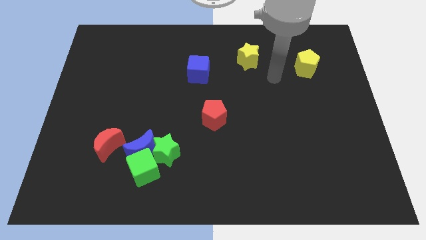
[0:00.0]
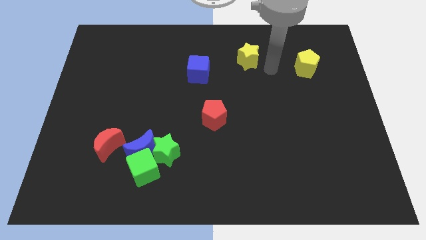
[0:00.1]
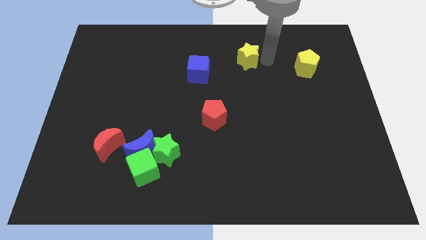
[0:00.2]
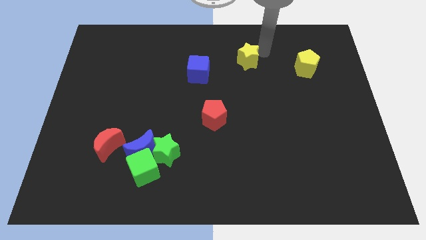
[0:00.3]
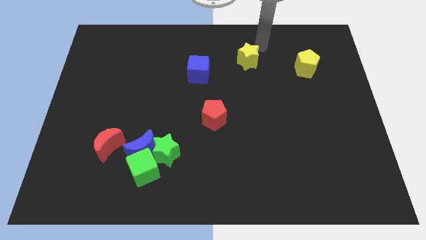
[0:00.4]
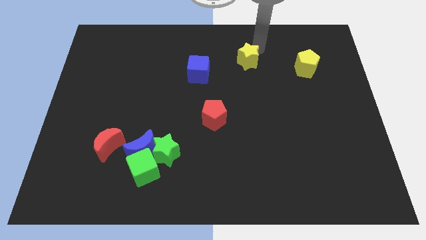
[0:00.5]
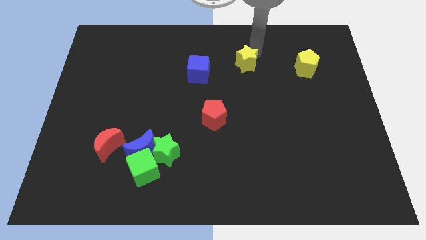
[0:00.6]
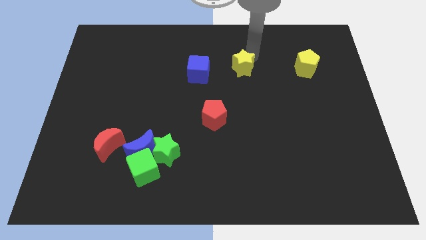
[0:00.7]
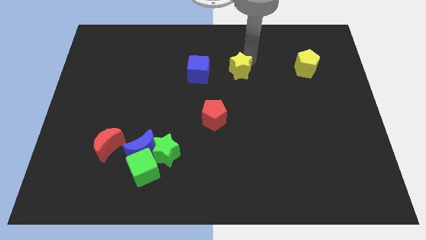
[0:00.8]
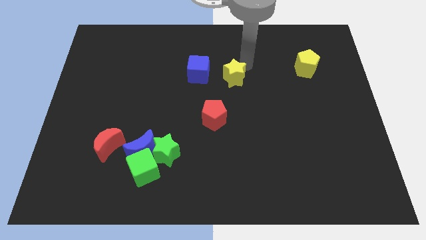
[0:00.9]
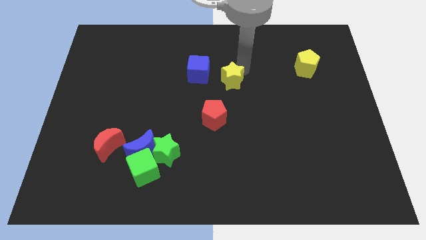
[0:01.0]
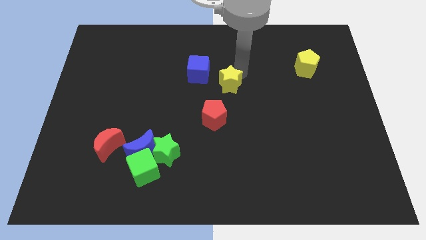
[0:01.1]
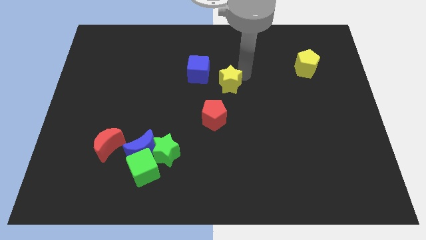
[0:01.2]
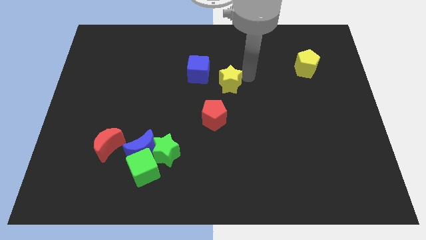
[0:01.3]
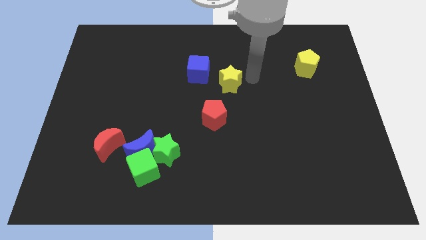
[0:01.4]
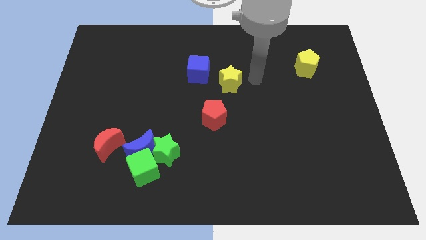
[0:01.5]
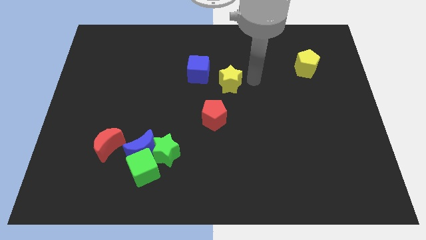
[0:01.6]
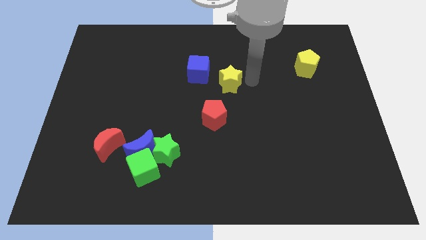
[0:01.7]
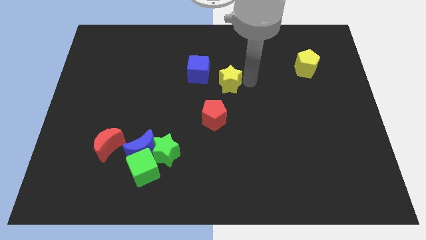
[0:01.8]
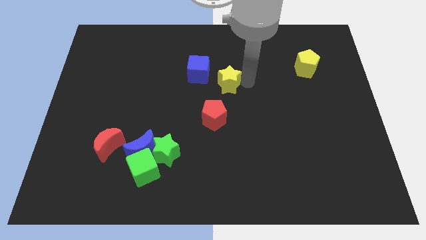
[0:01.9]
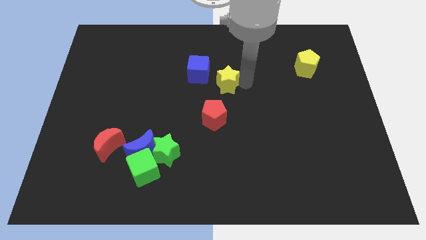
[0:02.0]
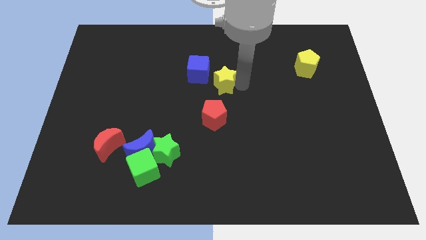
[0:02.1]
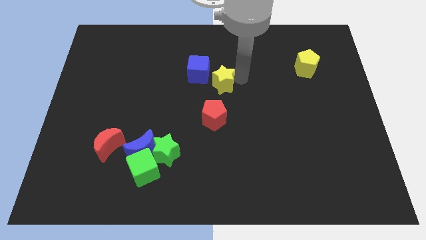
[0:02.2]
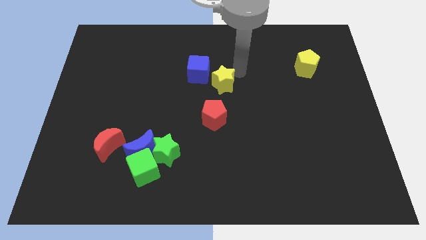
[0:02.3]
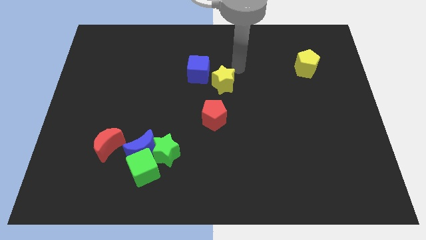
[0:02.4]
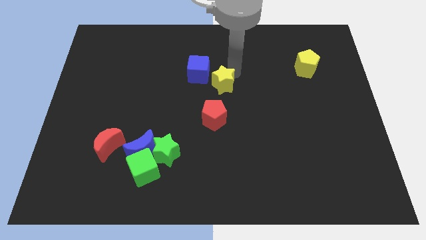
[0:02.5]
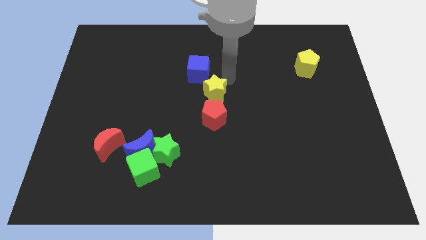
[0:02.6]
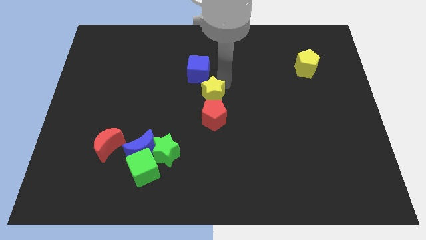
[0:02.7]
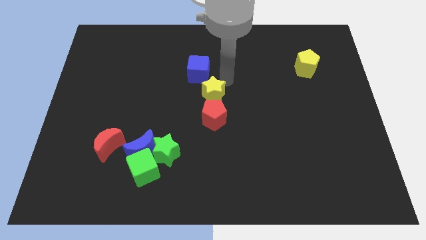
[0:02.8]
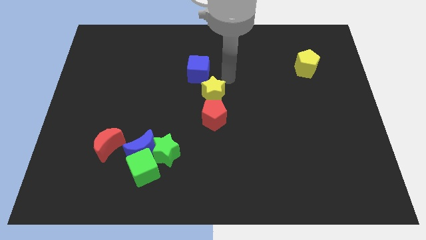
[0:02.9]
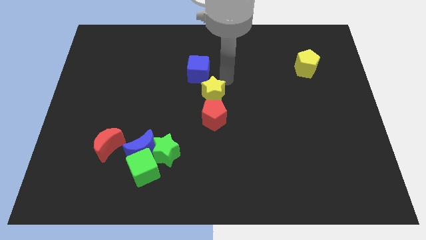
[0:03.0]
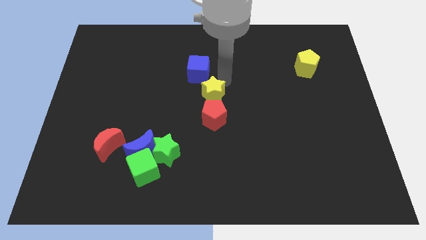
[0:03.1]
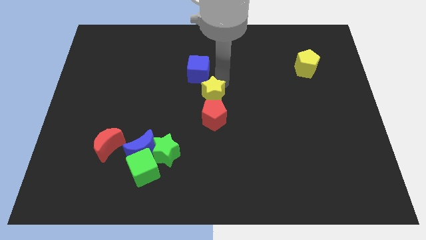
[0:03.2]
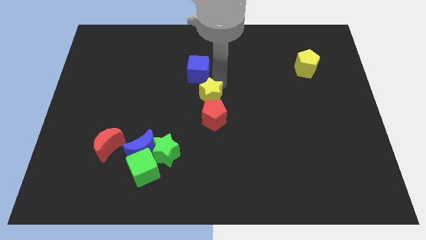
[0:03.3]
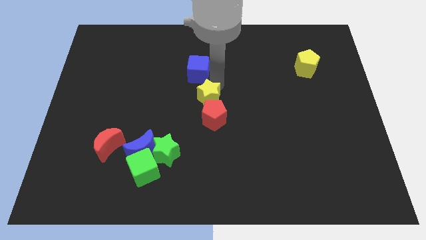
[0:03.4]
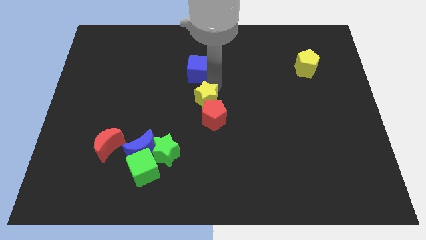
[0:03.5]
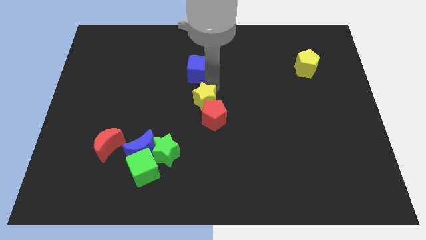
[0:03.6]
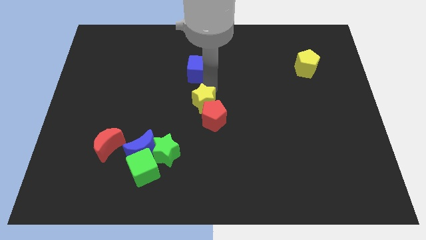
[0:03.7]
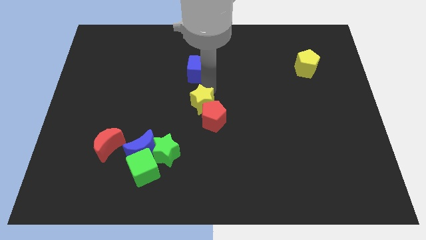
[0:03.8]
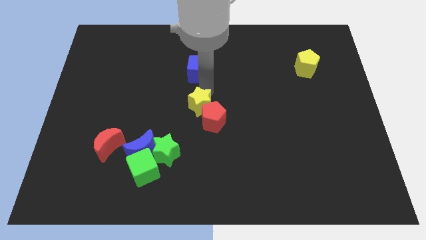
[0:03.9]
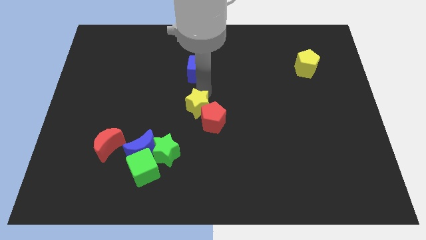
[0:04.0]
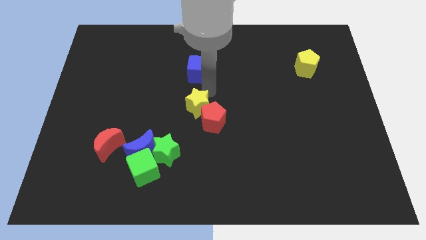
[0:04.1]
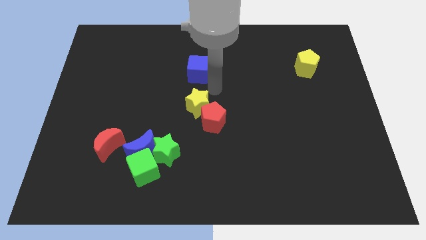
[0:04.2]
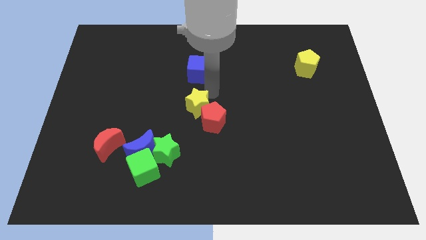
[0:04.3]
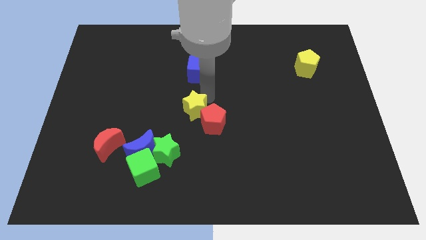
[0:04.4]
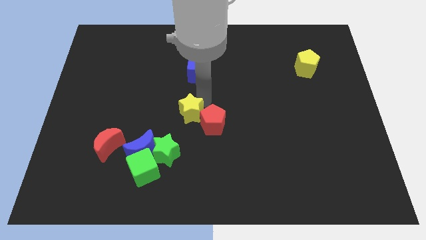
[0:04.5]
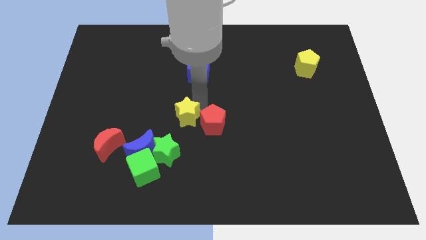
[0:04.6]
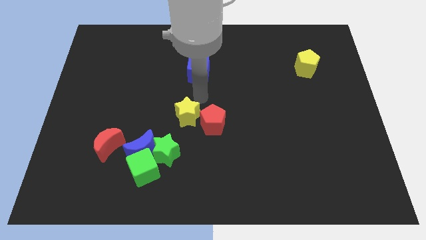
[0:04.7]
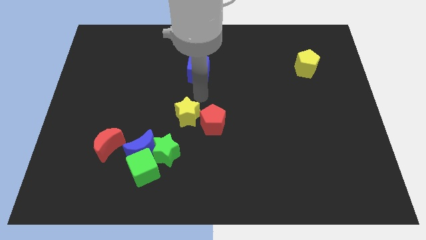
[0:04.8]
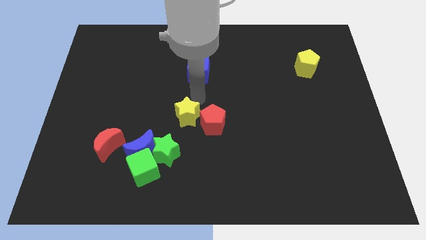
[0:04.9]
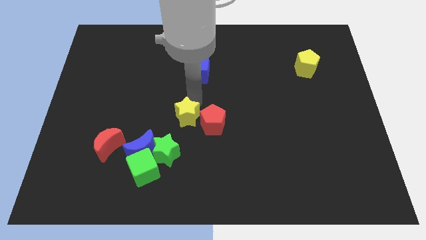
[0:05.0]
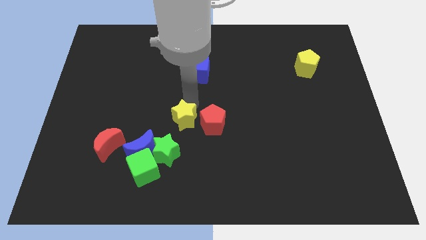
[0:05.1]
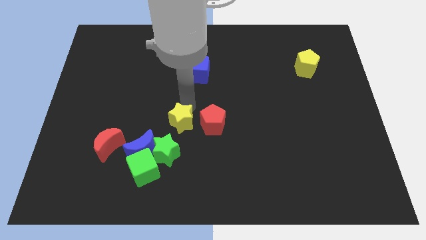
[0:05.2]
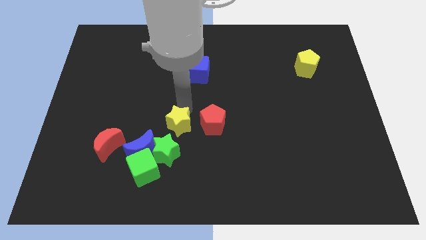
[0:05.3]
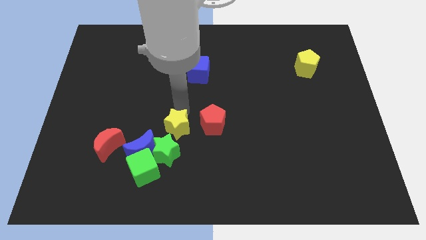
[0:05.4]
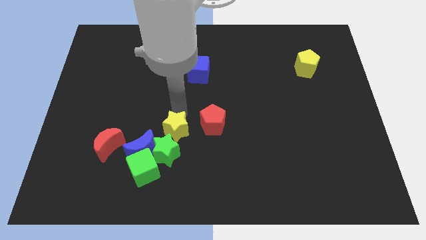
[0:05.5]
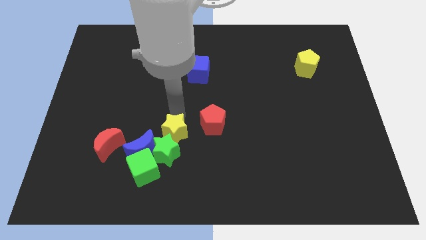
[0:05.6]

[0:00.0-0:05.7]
put the yellow star close to the green star

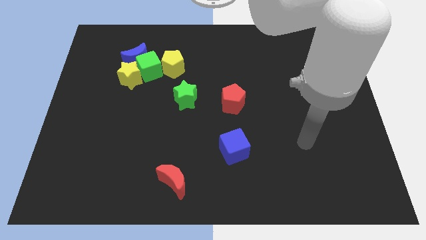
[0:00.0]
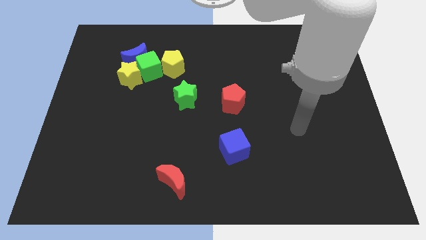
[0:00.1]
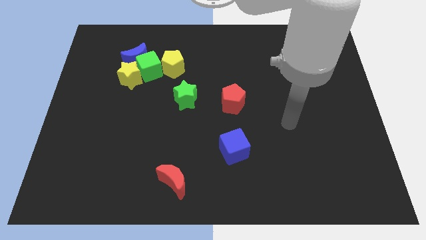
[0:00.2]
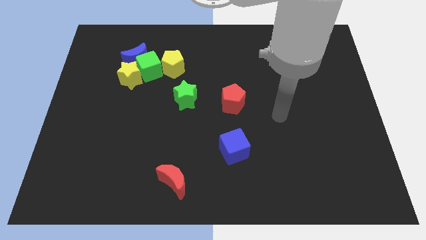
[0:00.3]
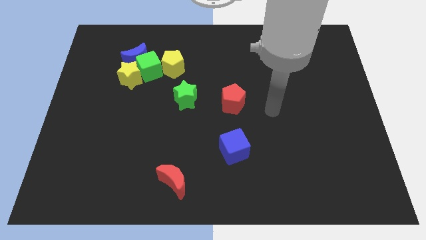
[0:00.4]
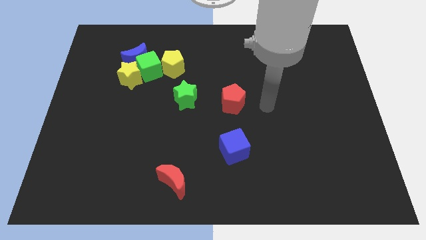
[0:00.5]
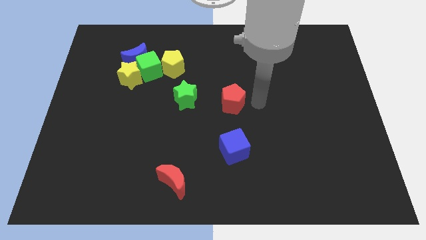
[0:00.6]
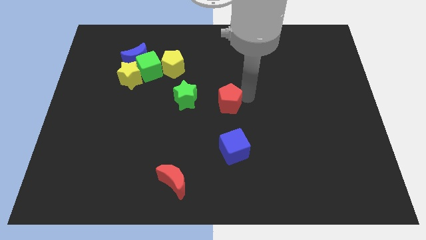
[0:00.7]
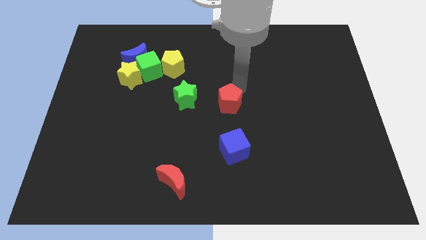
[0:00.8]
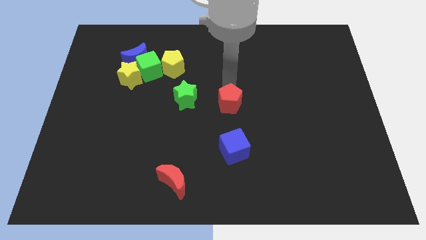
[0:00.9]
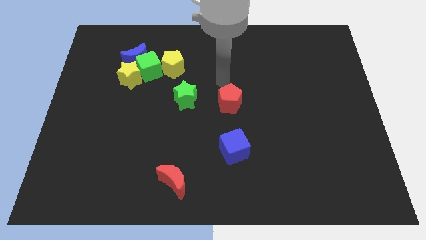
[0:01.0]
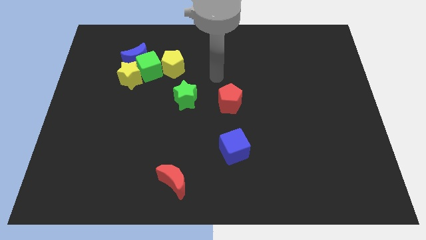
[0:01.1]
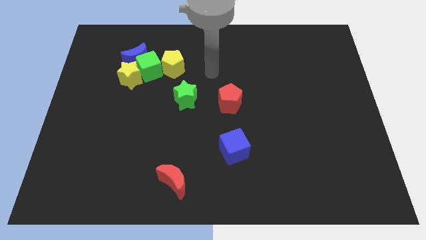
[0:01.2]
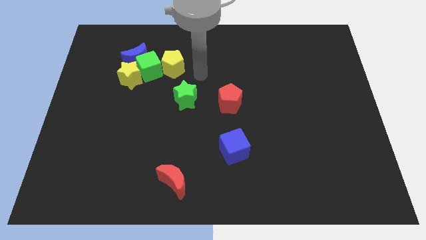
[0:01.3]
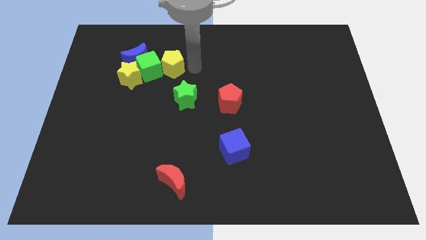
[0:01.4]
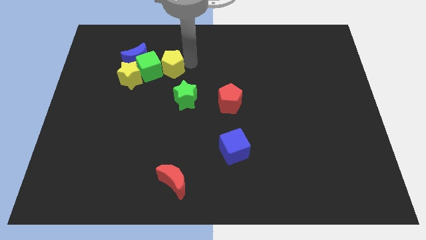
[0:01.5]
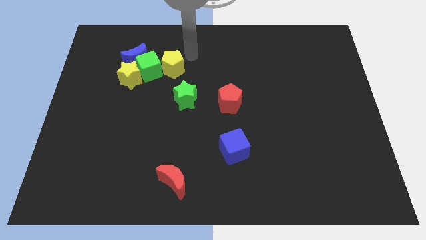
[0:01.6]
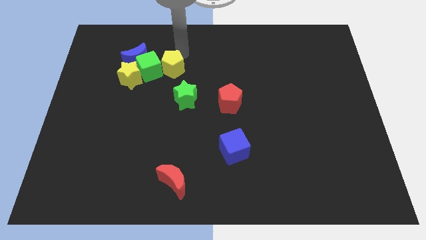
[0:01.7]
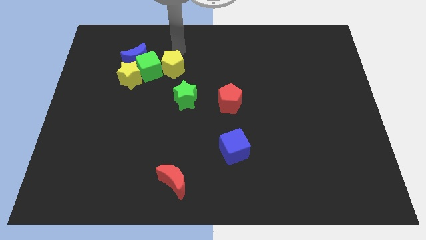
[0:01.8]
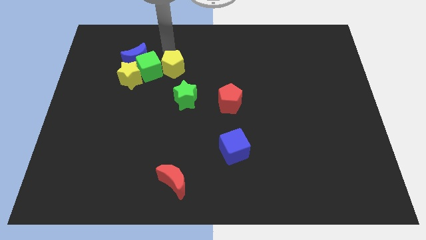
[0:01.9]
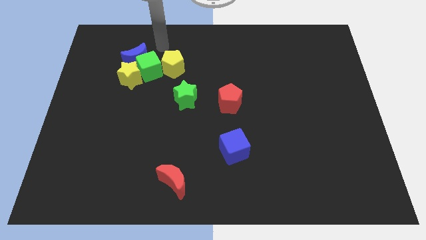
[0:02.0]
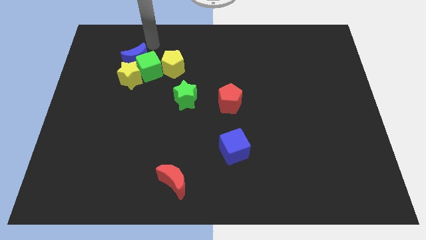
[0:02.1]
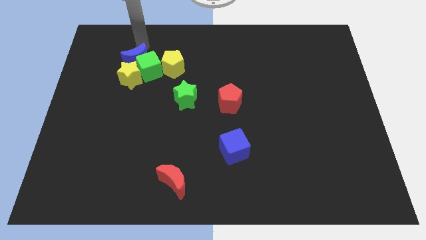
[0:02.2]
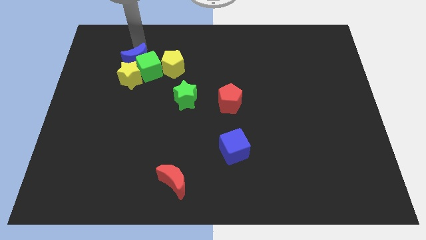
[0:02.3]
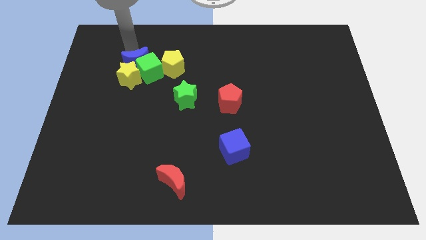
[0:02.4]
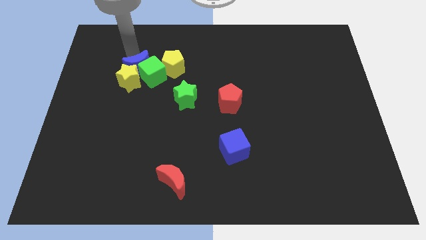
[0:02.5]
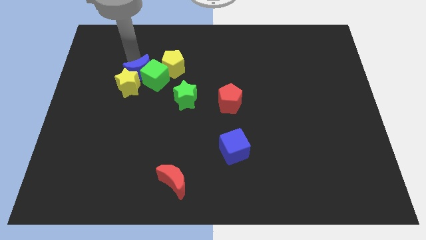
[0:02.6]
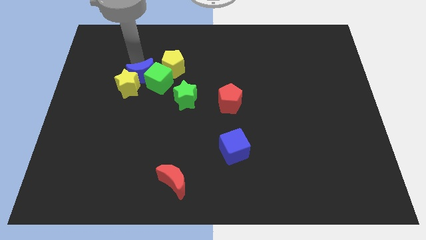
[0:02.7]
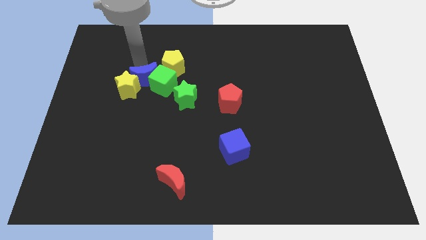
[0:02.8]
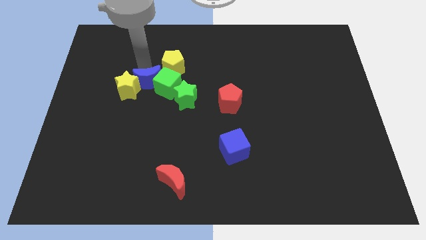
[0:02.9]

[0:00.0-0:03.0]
slide the green cube next to the green star
